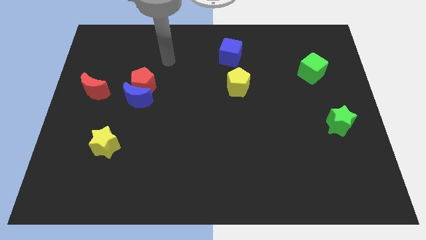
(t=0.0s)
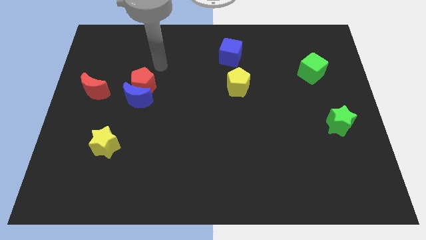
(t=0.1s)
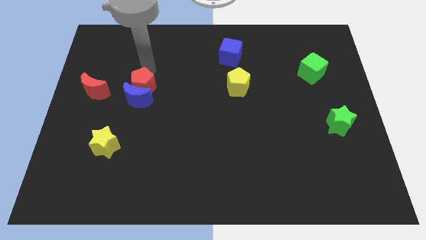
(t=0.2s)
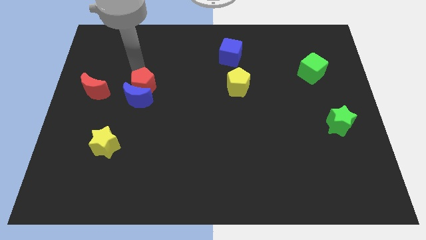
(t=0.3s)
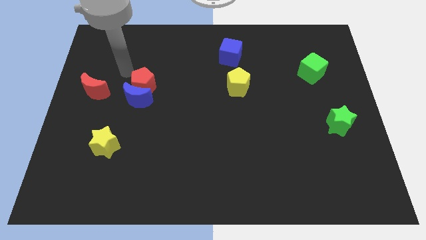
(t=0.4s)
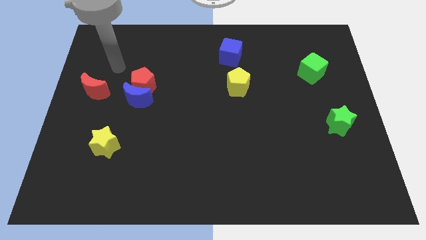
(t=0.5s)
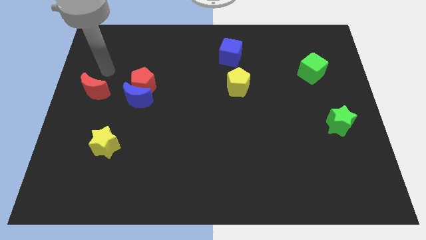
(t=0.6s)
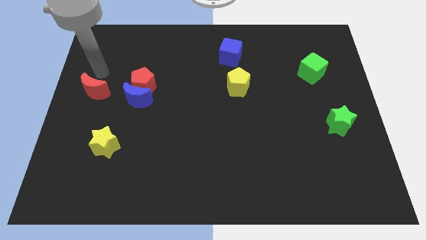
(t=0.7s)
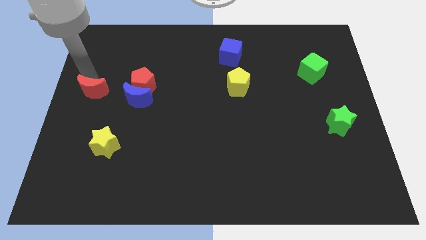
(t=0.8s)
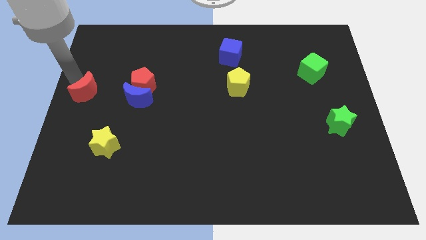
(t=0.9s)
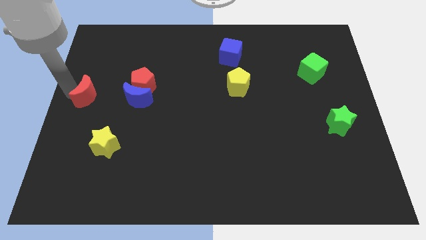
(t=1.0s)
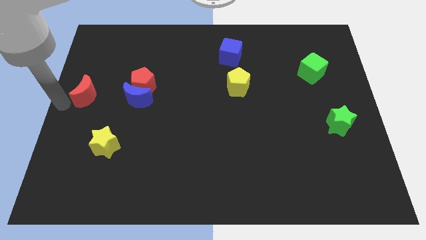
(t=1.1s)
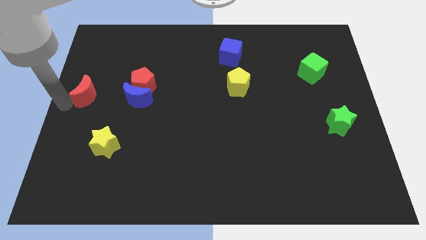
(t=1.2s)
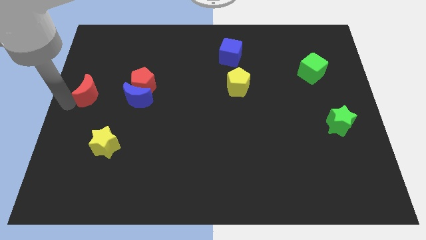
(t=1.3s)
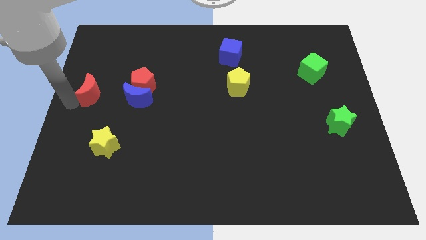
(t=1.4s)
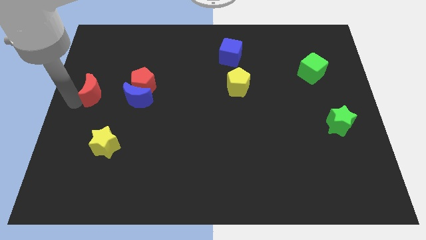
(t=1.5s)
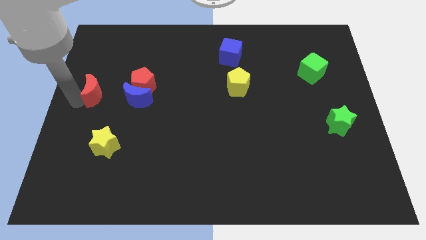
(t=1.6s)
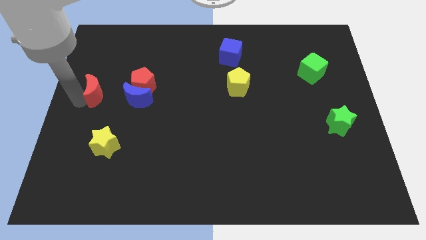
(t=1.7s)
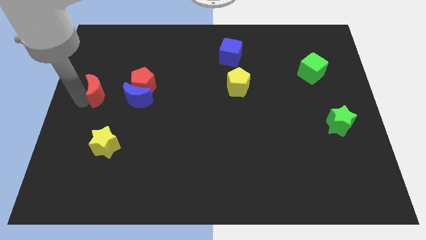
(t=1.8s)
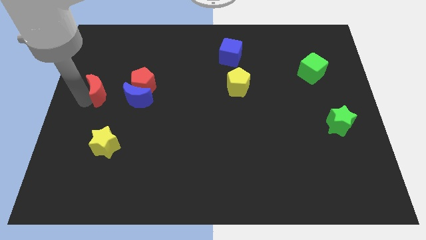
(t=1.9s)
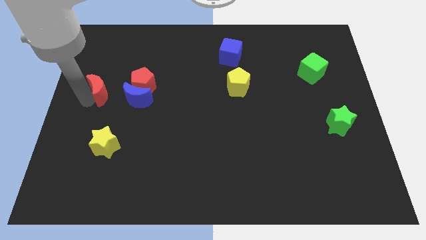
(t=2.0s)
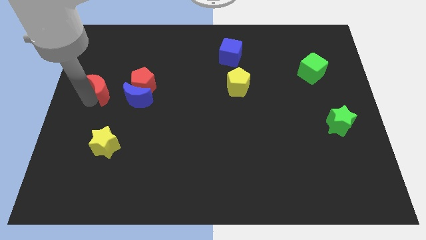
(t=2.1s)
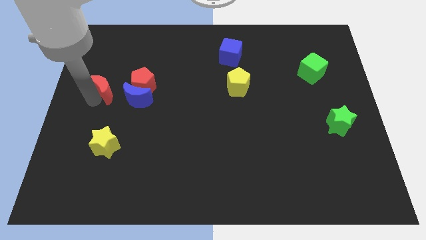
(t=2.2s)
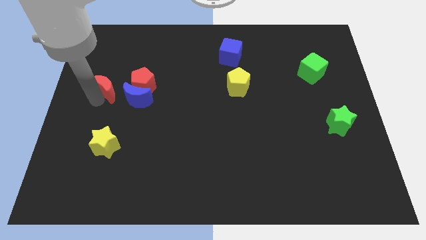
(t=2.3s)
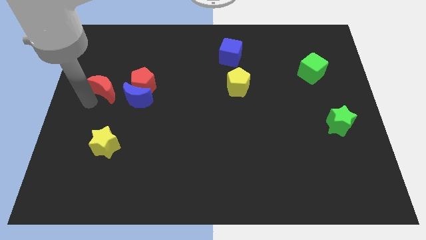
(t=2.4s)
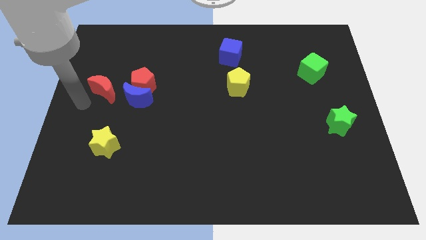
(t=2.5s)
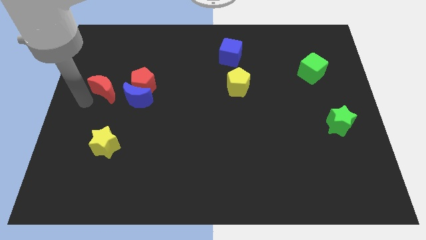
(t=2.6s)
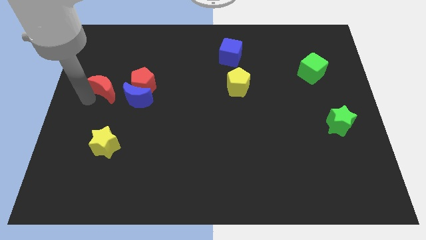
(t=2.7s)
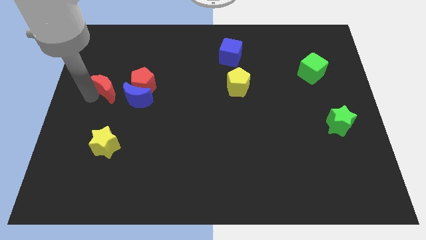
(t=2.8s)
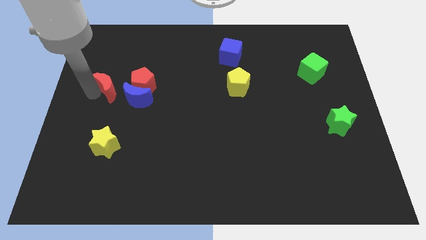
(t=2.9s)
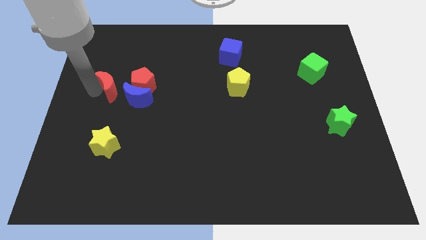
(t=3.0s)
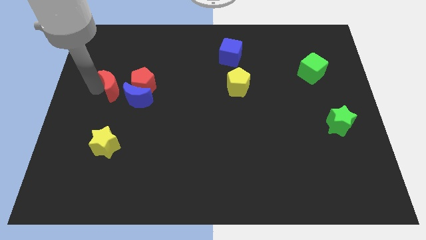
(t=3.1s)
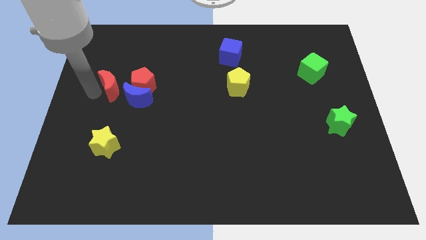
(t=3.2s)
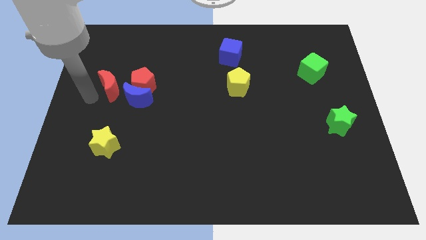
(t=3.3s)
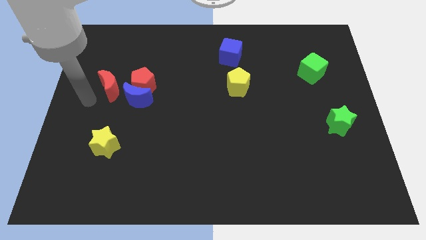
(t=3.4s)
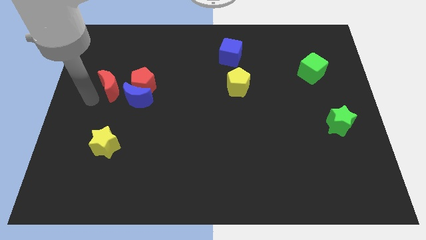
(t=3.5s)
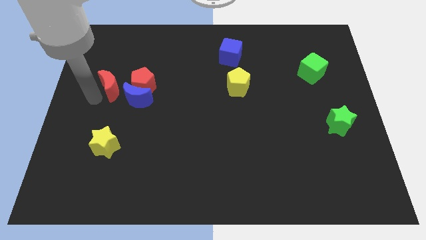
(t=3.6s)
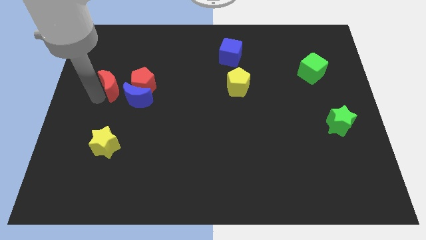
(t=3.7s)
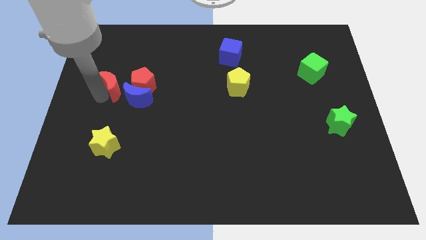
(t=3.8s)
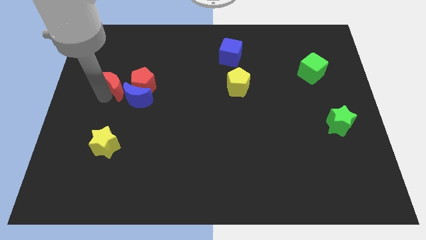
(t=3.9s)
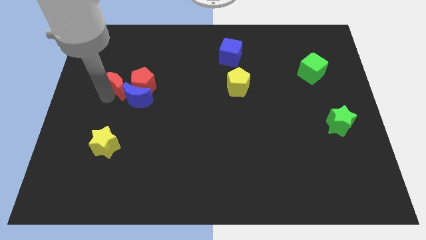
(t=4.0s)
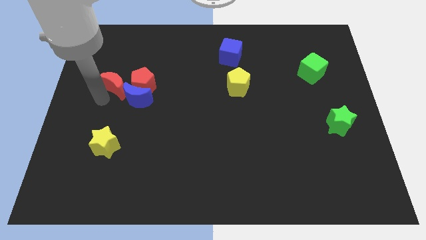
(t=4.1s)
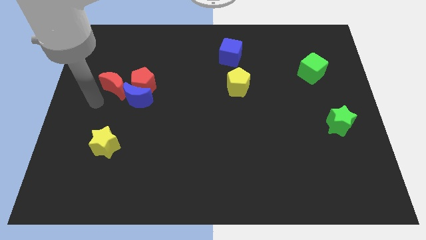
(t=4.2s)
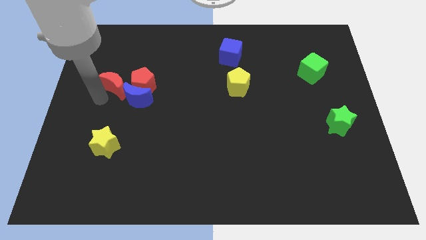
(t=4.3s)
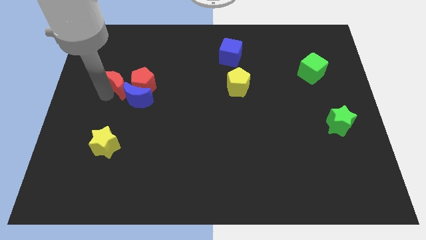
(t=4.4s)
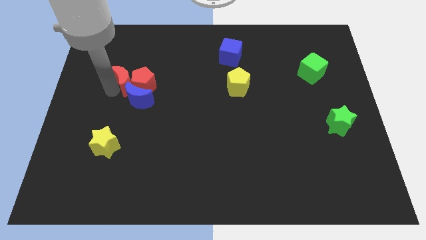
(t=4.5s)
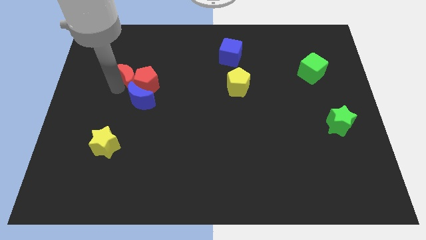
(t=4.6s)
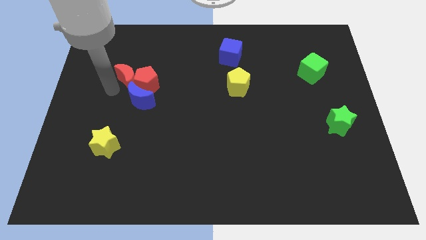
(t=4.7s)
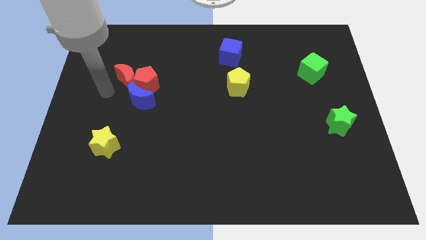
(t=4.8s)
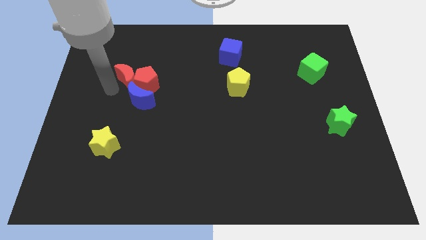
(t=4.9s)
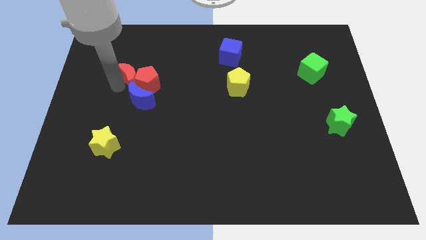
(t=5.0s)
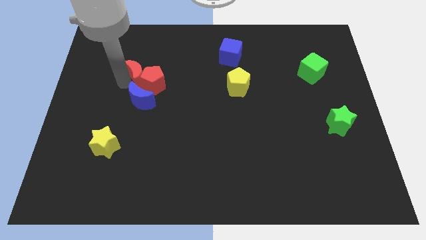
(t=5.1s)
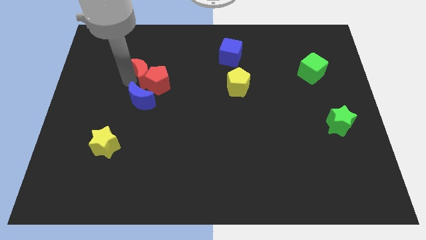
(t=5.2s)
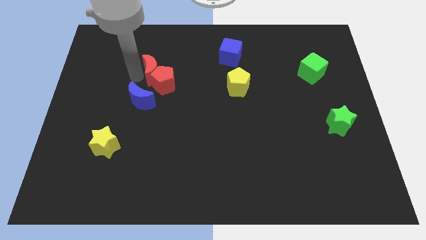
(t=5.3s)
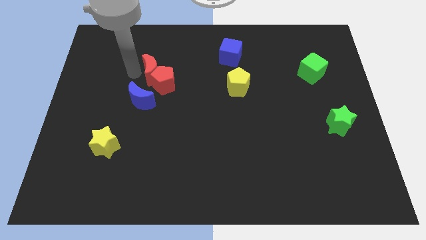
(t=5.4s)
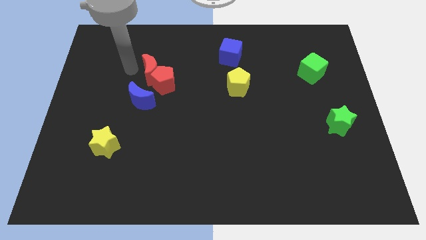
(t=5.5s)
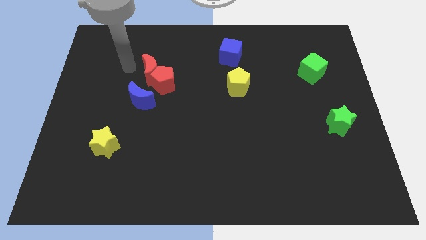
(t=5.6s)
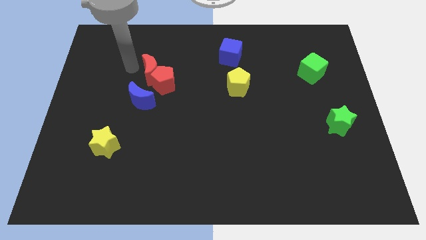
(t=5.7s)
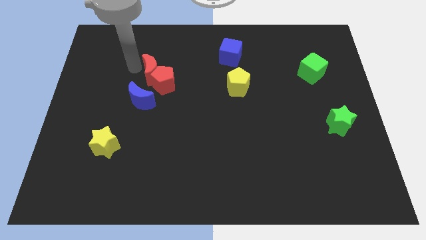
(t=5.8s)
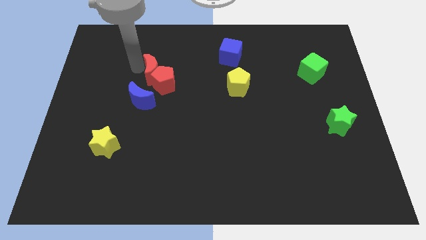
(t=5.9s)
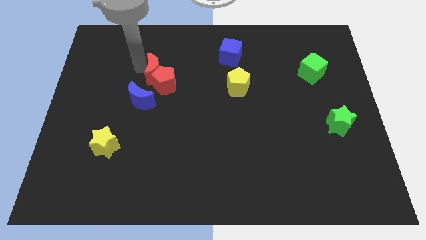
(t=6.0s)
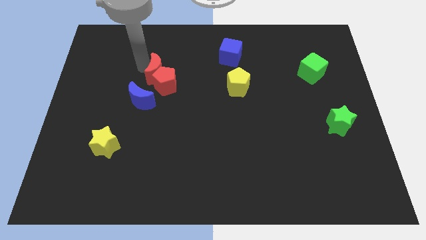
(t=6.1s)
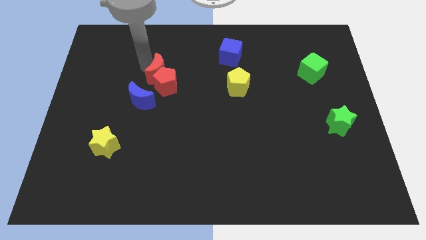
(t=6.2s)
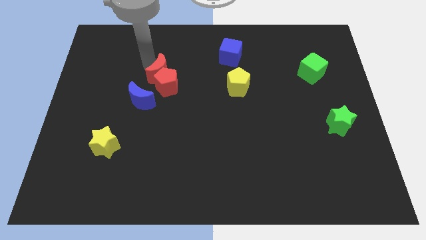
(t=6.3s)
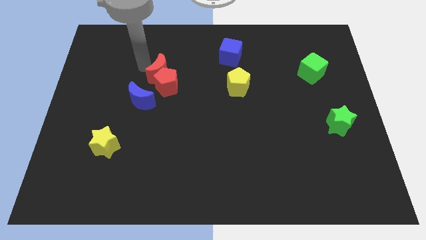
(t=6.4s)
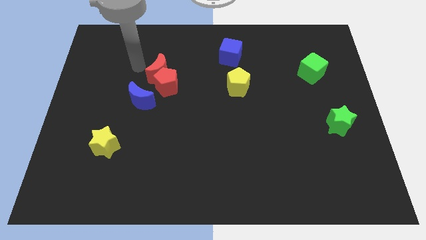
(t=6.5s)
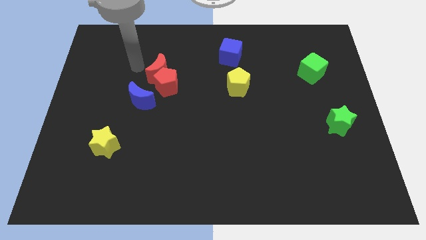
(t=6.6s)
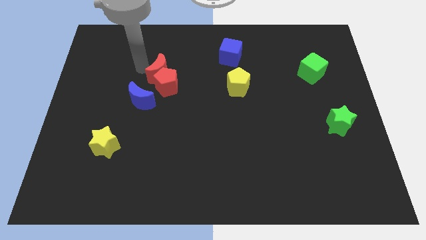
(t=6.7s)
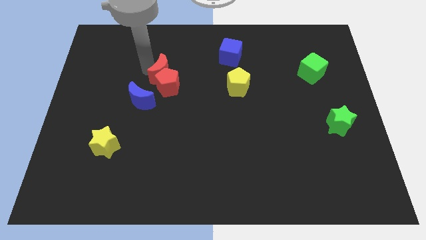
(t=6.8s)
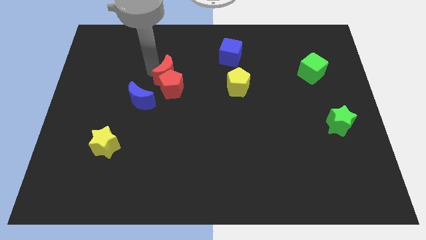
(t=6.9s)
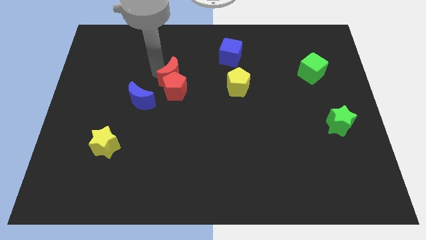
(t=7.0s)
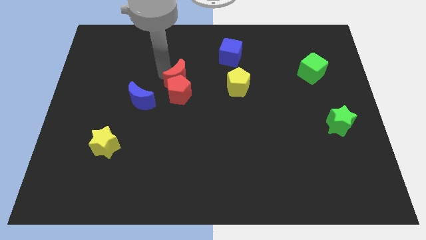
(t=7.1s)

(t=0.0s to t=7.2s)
slide the red moon just left of the yellow pentagon
